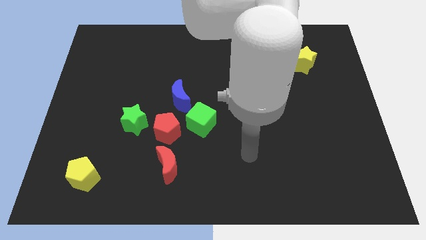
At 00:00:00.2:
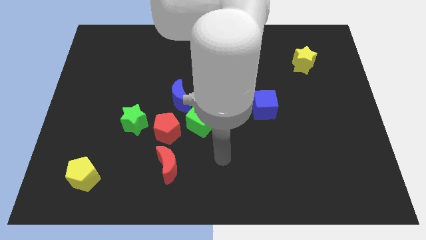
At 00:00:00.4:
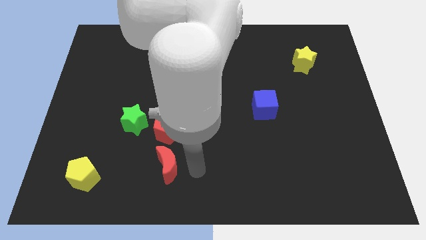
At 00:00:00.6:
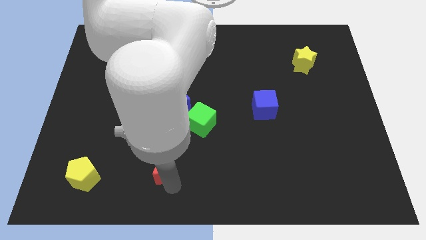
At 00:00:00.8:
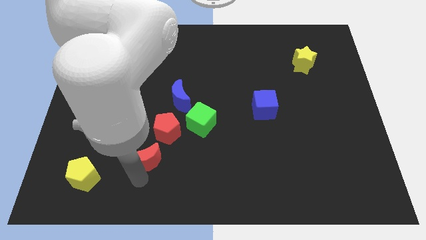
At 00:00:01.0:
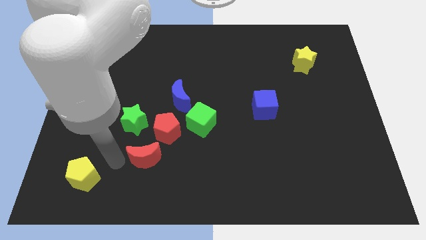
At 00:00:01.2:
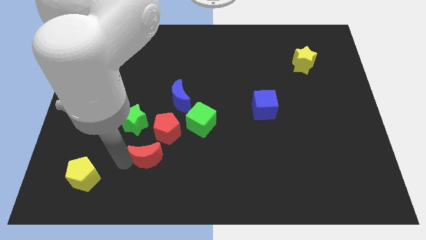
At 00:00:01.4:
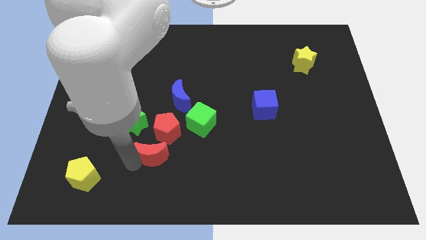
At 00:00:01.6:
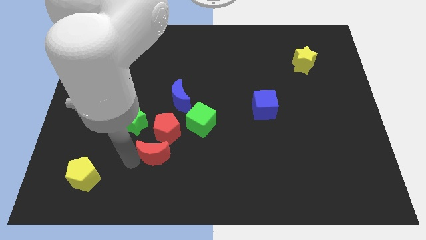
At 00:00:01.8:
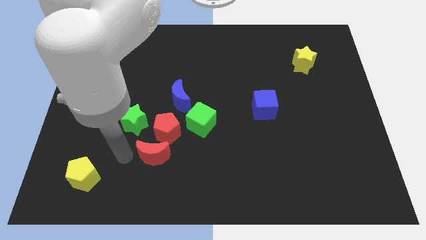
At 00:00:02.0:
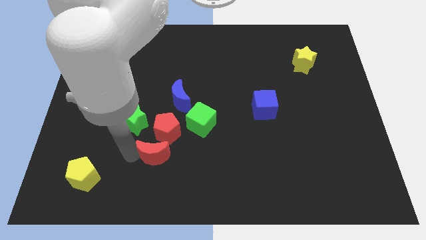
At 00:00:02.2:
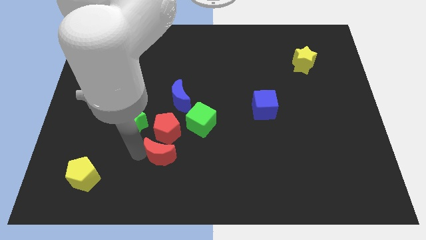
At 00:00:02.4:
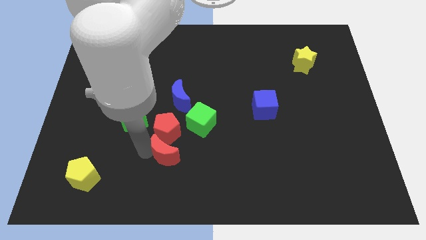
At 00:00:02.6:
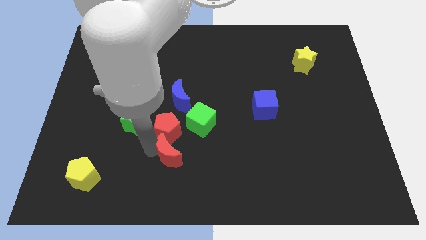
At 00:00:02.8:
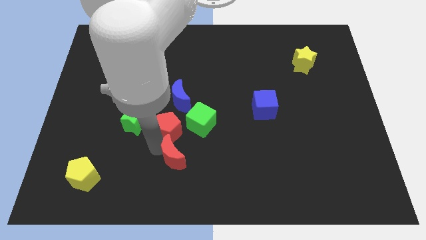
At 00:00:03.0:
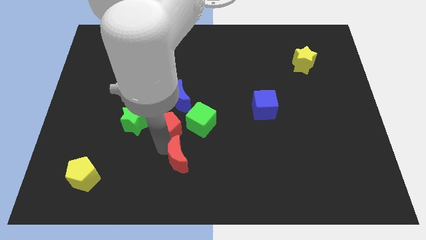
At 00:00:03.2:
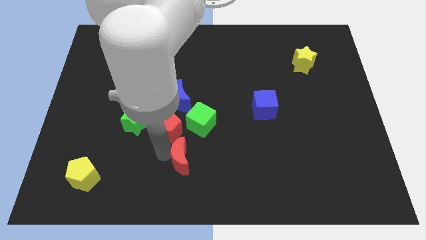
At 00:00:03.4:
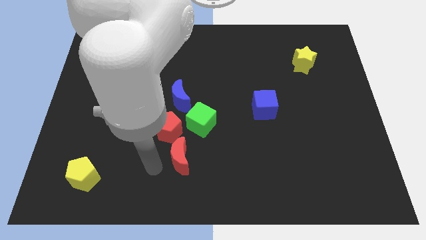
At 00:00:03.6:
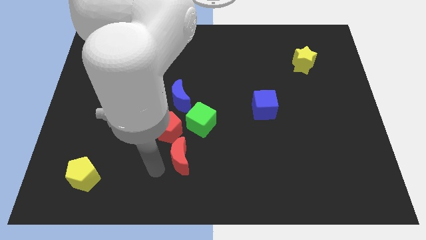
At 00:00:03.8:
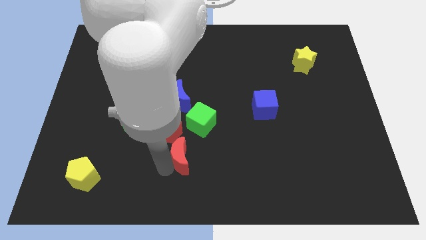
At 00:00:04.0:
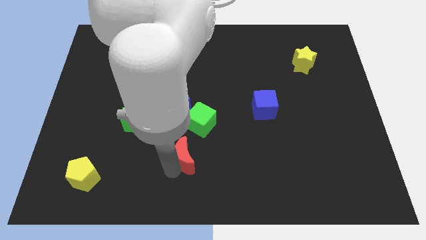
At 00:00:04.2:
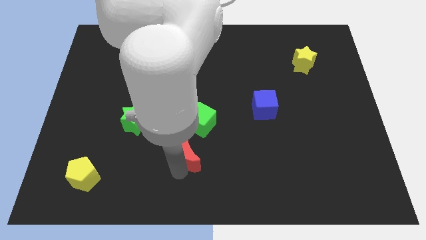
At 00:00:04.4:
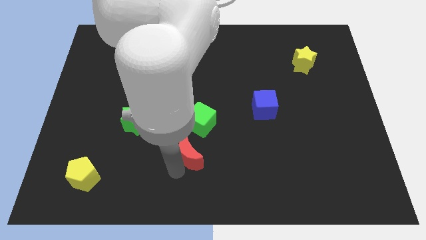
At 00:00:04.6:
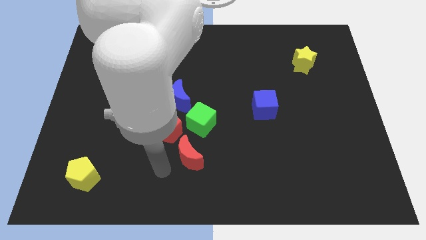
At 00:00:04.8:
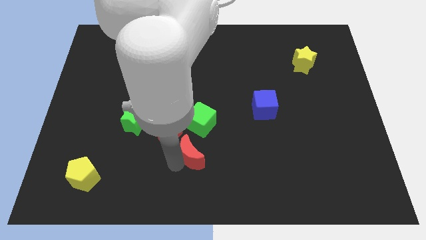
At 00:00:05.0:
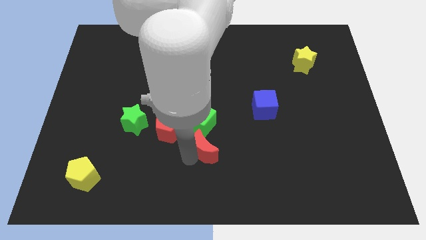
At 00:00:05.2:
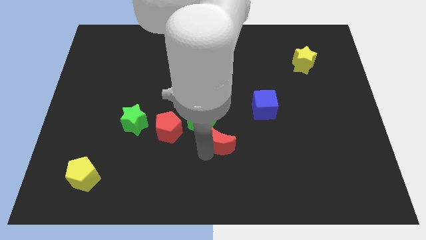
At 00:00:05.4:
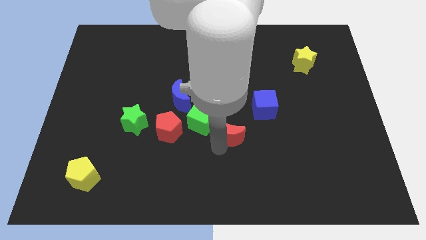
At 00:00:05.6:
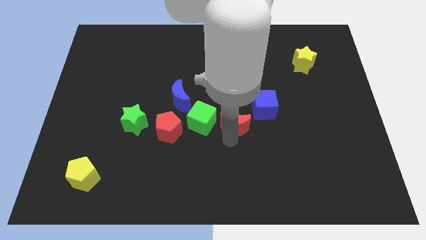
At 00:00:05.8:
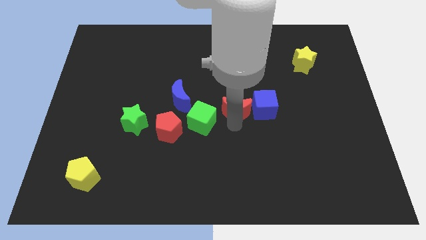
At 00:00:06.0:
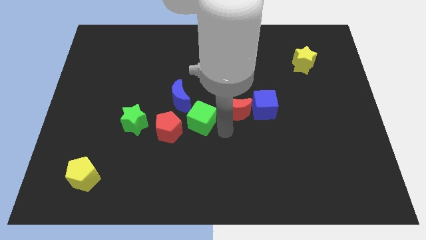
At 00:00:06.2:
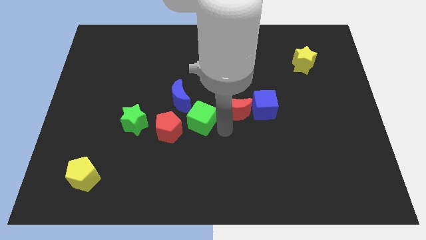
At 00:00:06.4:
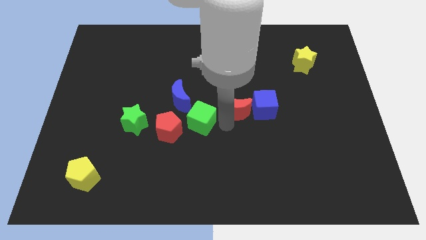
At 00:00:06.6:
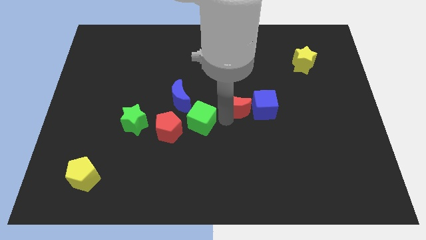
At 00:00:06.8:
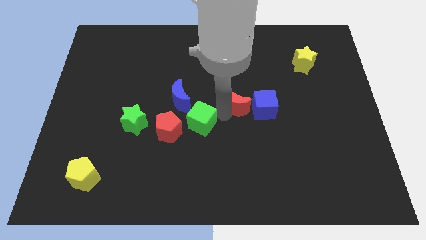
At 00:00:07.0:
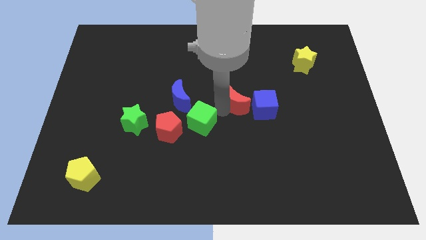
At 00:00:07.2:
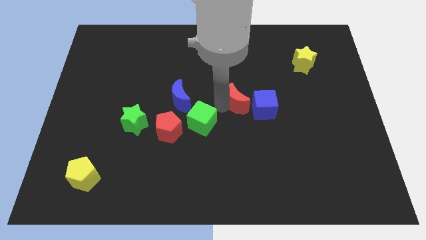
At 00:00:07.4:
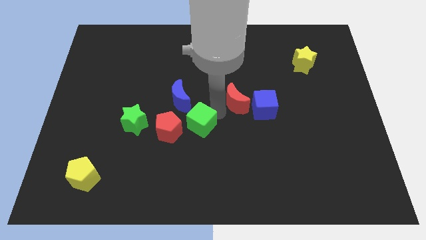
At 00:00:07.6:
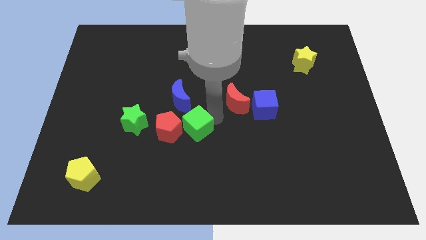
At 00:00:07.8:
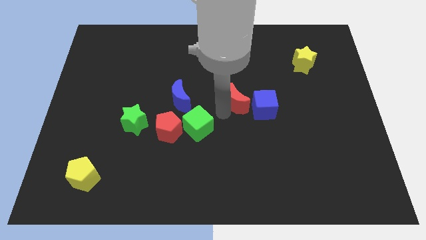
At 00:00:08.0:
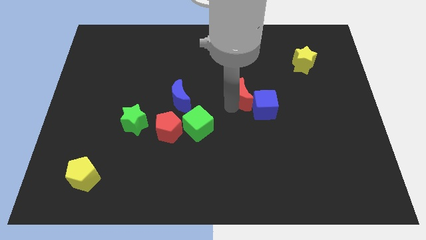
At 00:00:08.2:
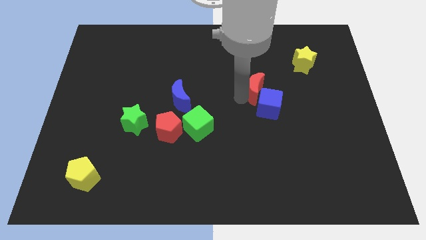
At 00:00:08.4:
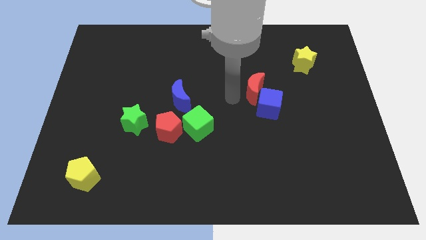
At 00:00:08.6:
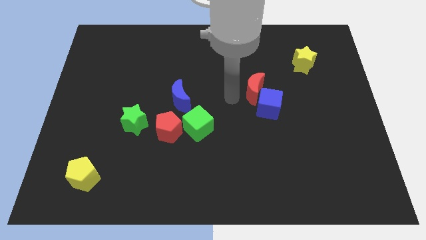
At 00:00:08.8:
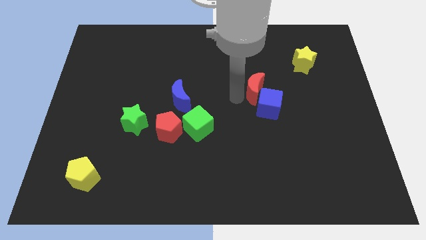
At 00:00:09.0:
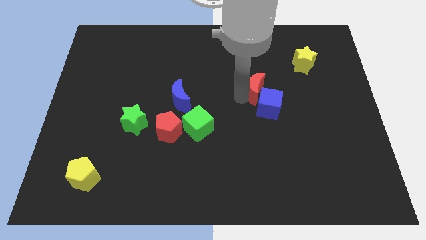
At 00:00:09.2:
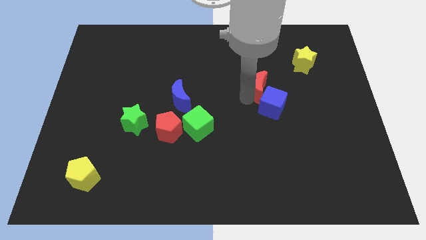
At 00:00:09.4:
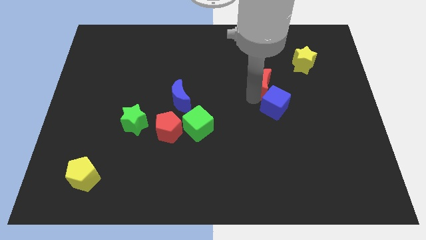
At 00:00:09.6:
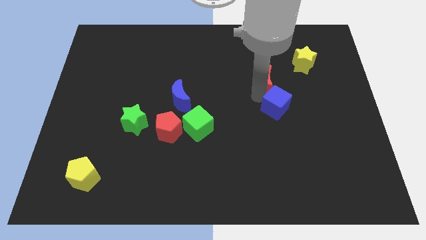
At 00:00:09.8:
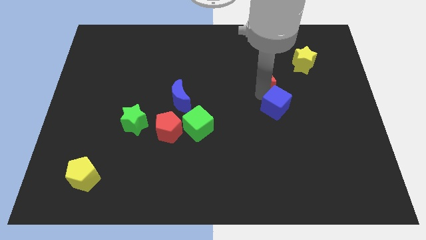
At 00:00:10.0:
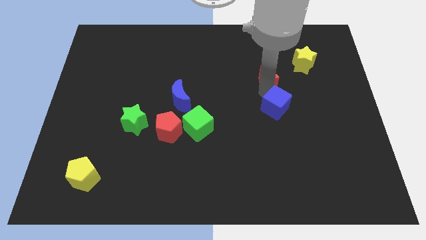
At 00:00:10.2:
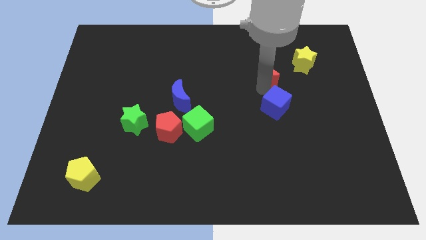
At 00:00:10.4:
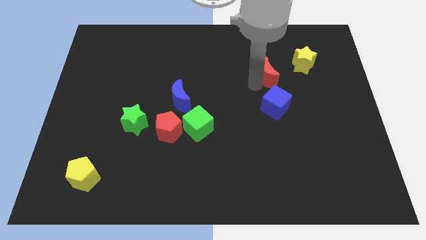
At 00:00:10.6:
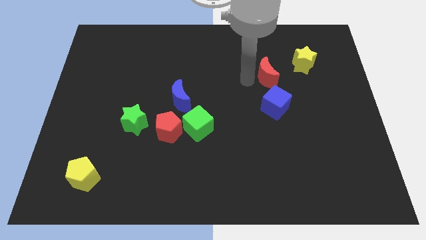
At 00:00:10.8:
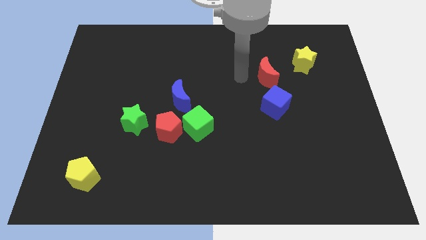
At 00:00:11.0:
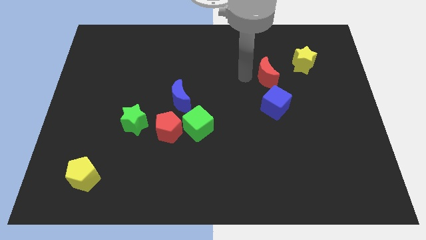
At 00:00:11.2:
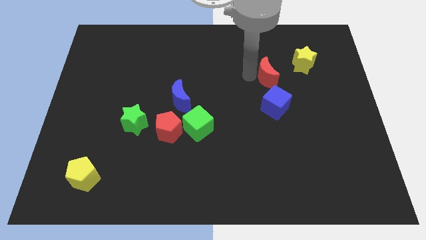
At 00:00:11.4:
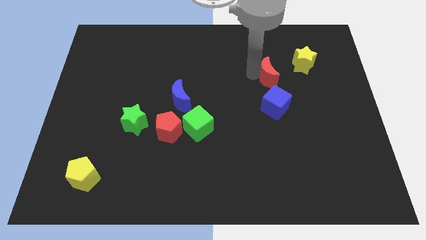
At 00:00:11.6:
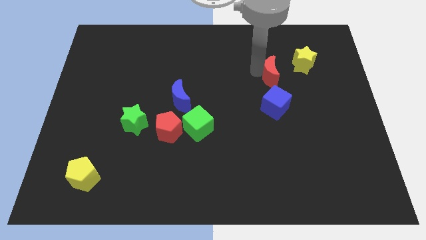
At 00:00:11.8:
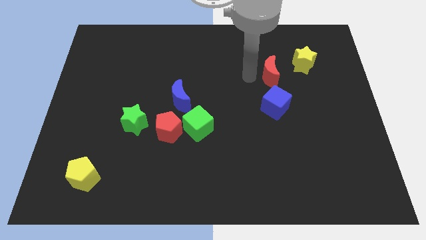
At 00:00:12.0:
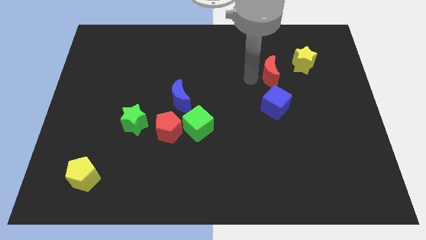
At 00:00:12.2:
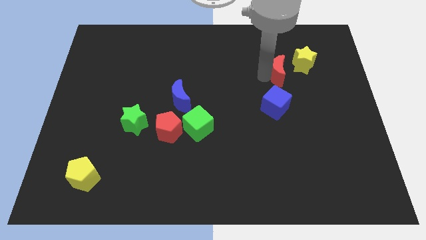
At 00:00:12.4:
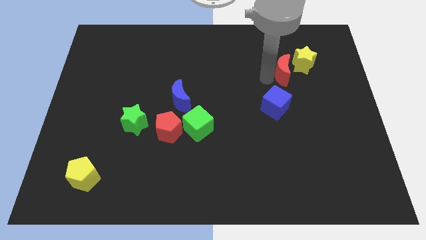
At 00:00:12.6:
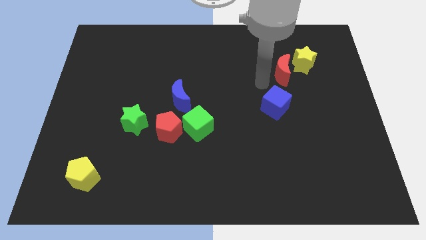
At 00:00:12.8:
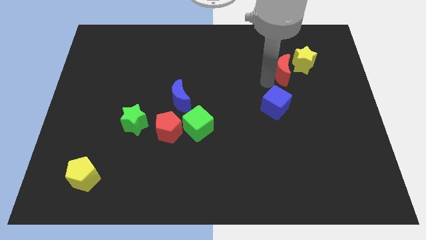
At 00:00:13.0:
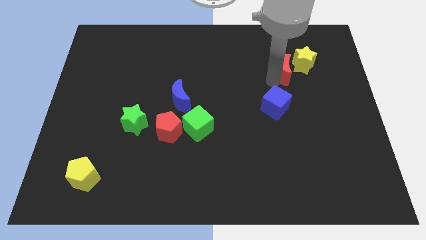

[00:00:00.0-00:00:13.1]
slide the red moon close to the yellow star

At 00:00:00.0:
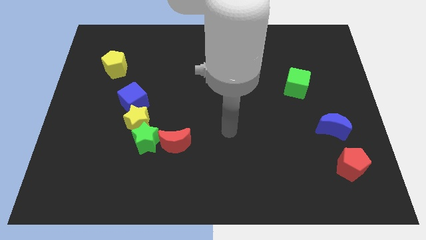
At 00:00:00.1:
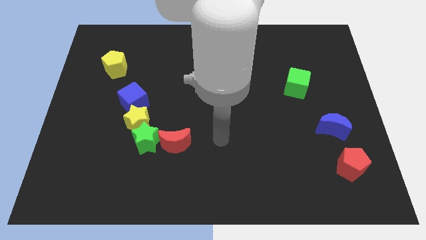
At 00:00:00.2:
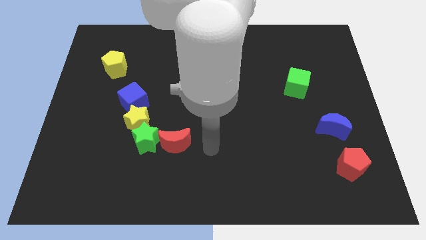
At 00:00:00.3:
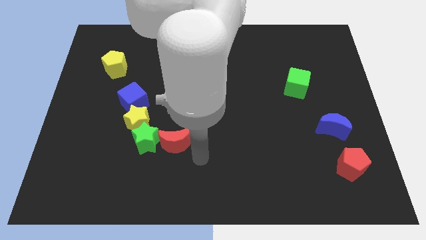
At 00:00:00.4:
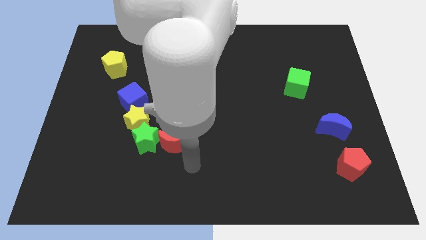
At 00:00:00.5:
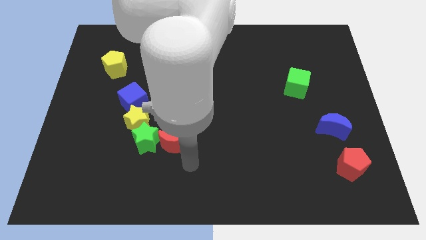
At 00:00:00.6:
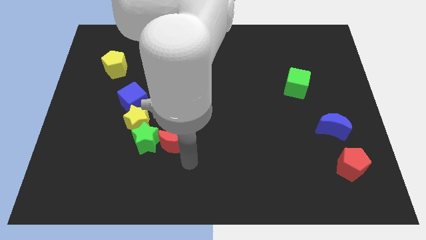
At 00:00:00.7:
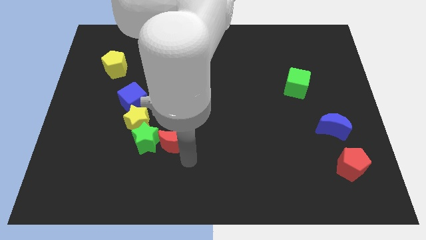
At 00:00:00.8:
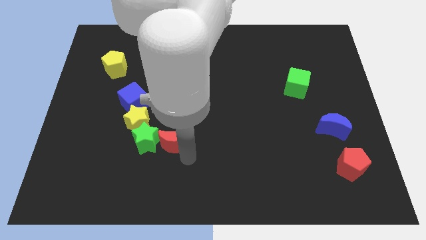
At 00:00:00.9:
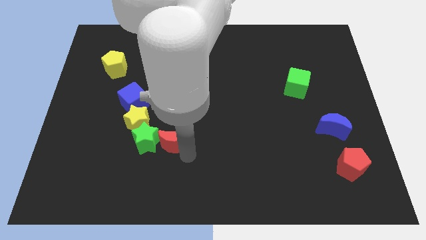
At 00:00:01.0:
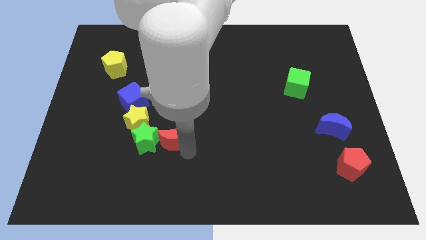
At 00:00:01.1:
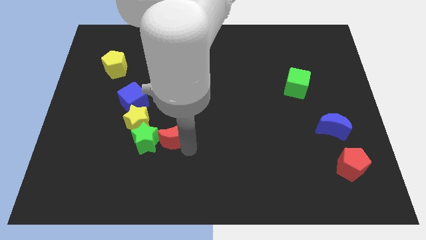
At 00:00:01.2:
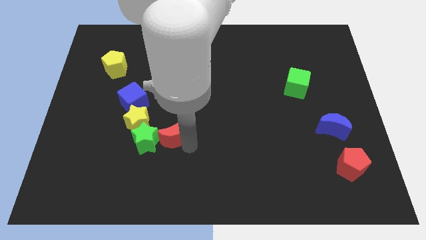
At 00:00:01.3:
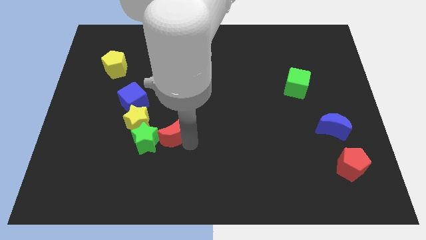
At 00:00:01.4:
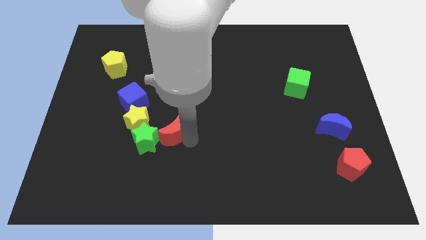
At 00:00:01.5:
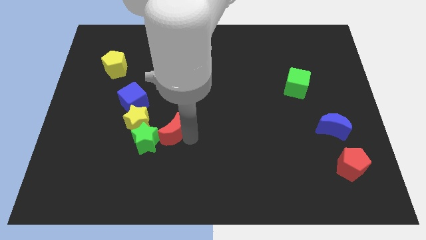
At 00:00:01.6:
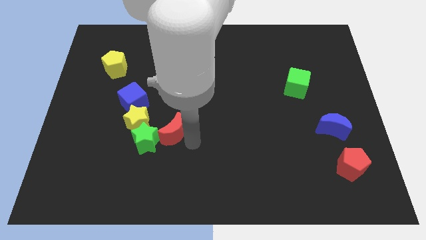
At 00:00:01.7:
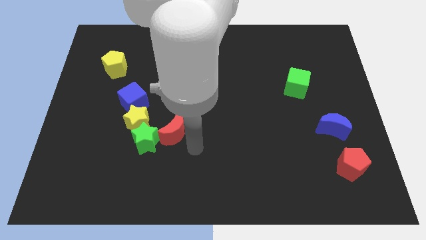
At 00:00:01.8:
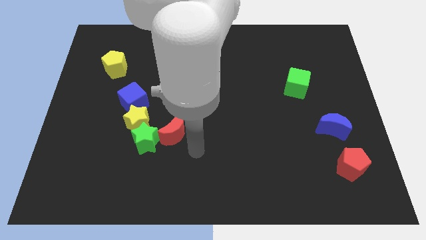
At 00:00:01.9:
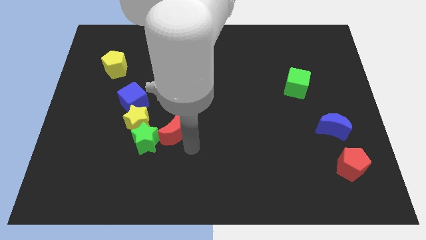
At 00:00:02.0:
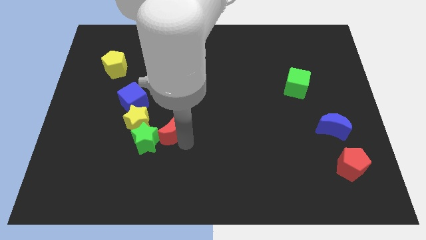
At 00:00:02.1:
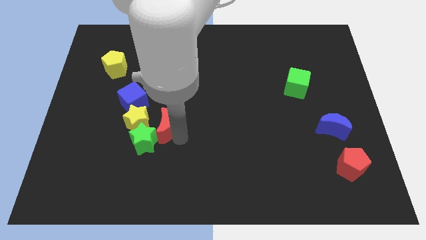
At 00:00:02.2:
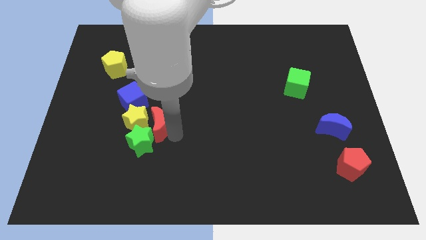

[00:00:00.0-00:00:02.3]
push the red moon to the yellow star
